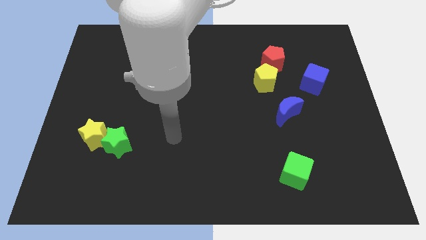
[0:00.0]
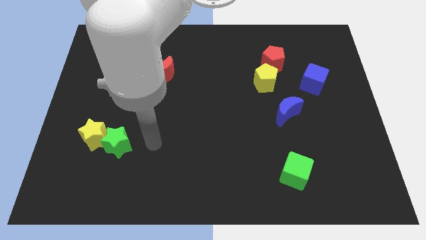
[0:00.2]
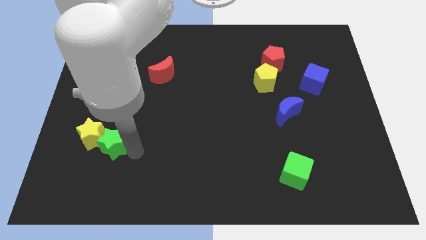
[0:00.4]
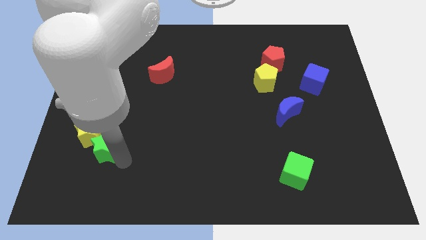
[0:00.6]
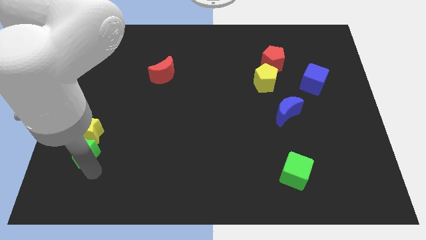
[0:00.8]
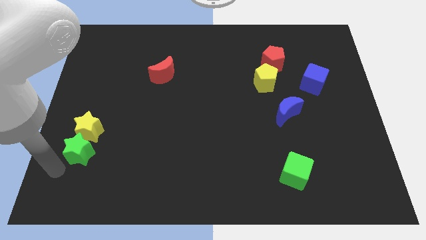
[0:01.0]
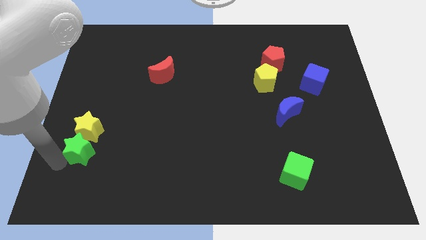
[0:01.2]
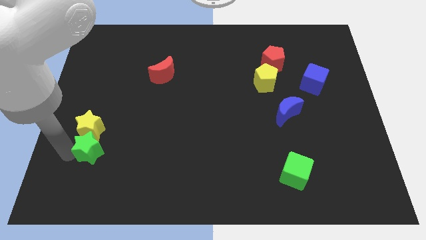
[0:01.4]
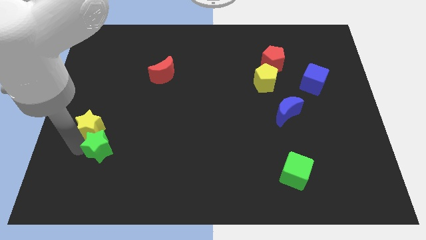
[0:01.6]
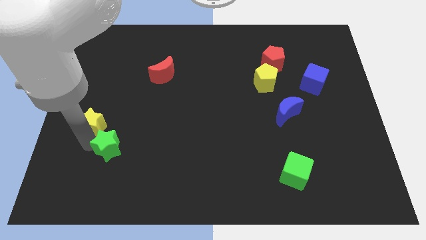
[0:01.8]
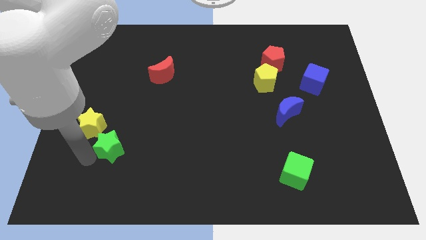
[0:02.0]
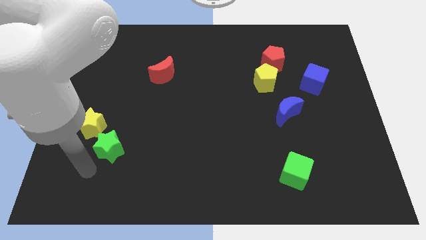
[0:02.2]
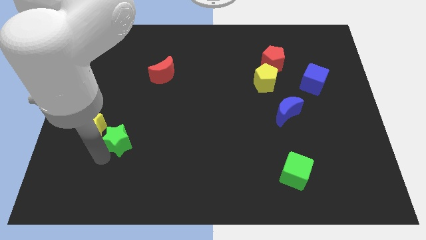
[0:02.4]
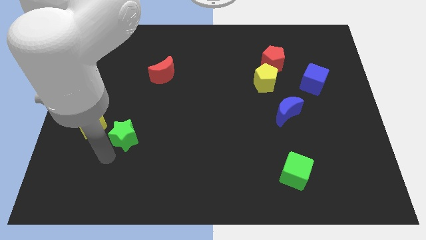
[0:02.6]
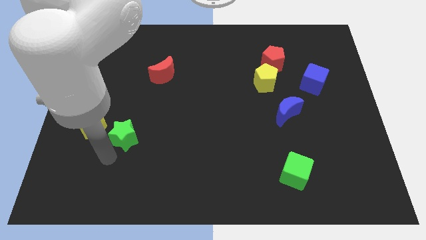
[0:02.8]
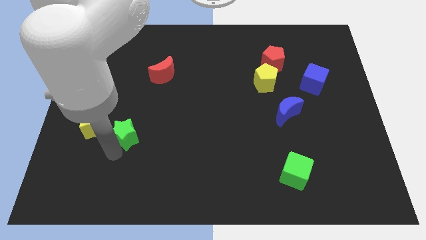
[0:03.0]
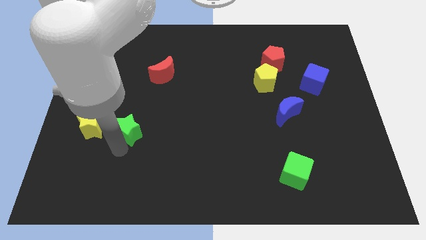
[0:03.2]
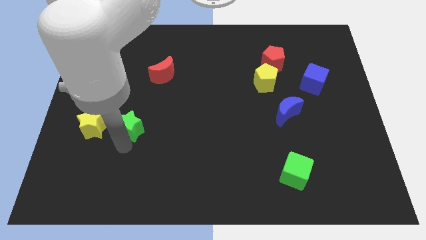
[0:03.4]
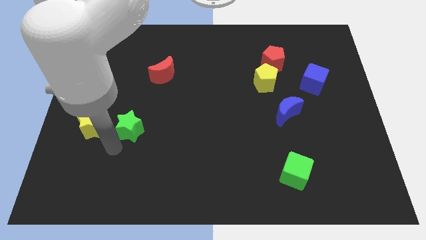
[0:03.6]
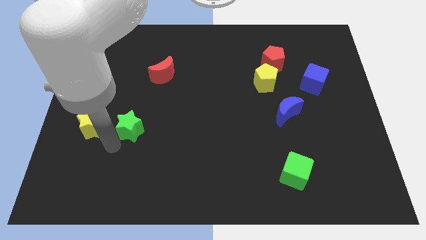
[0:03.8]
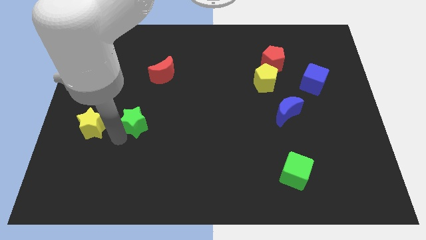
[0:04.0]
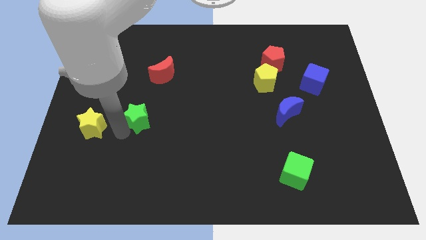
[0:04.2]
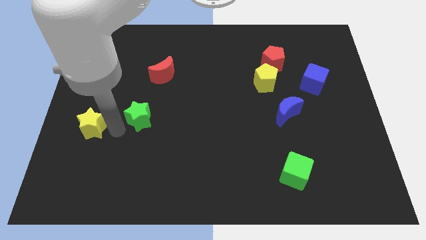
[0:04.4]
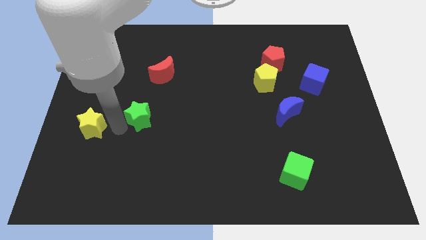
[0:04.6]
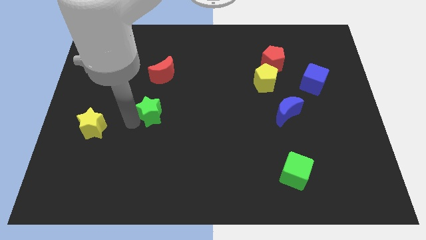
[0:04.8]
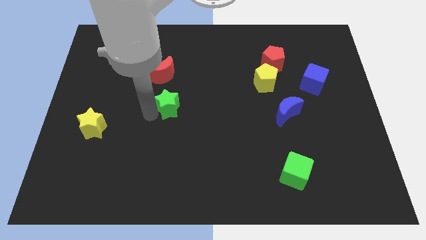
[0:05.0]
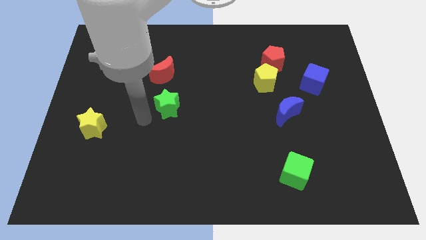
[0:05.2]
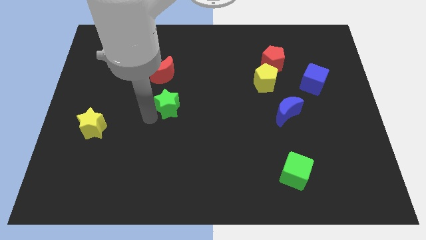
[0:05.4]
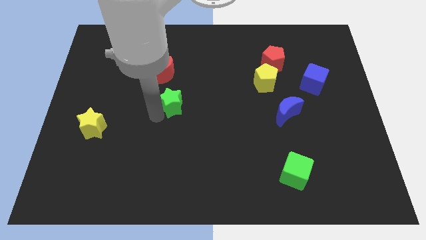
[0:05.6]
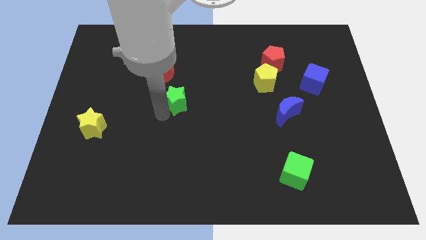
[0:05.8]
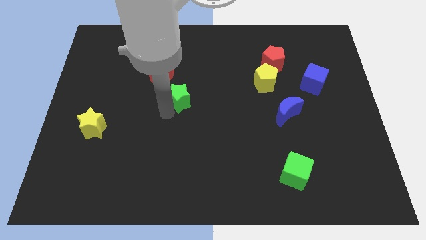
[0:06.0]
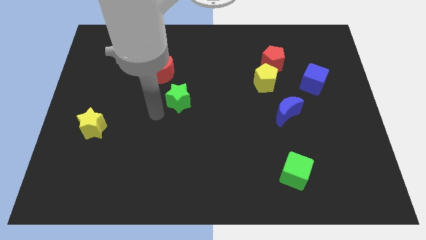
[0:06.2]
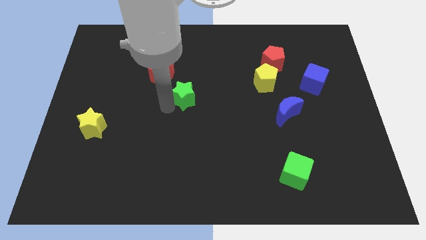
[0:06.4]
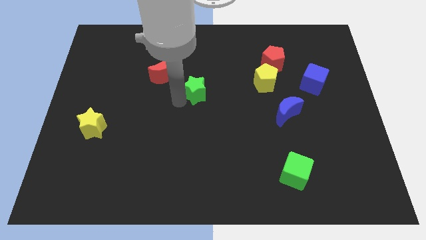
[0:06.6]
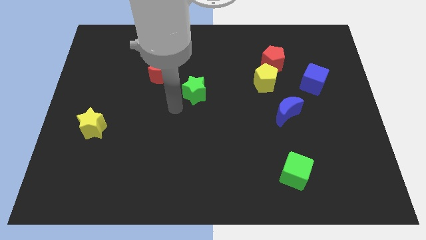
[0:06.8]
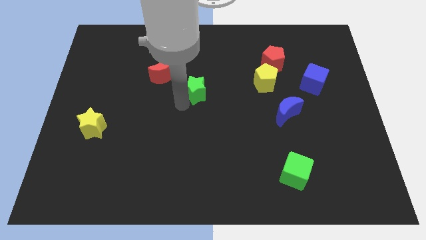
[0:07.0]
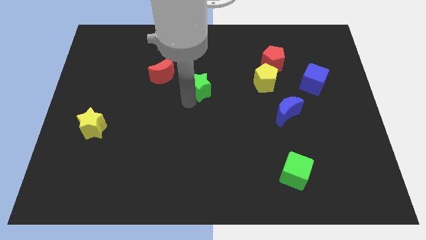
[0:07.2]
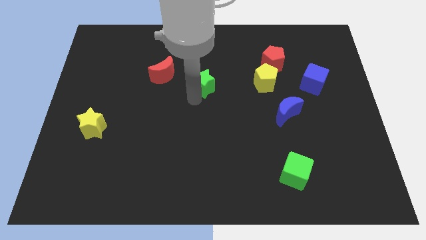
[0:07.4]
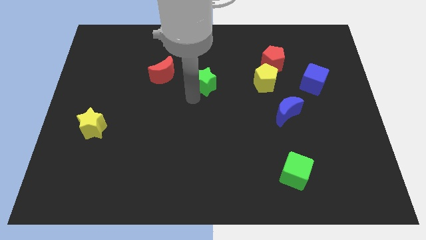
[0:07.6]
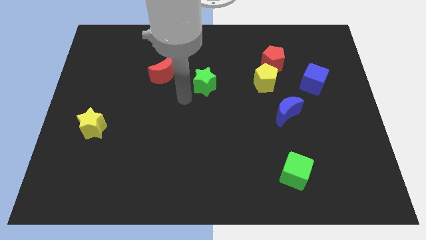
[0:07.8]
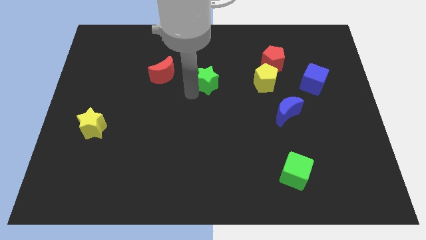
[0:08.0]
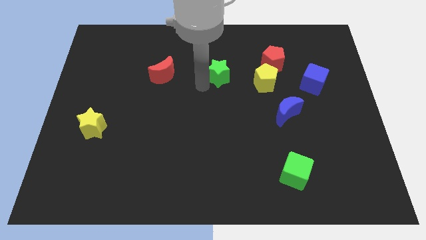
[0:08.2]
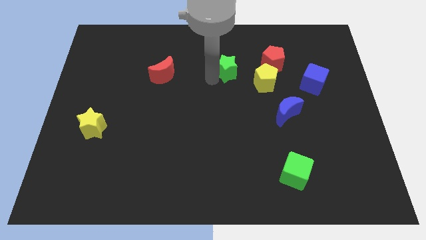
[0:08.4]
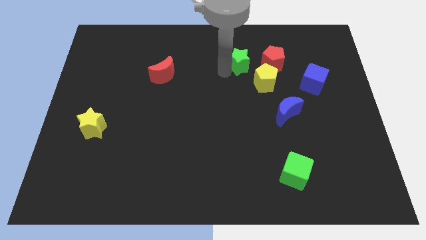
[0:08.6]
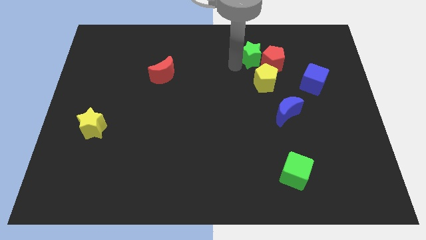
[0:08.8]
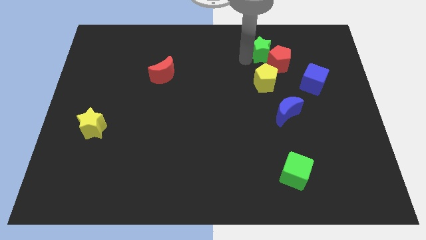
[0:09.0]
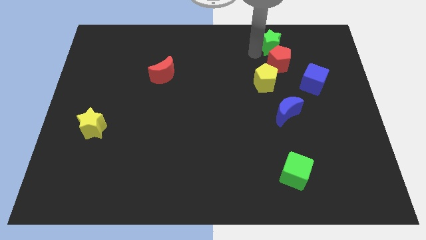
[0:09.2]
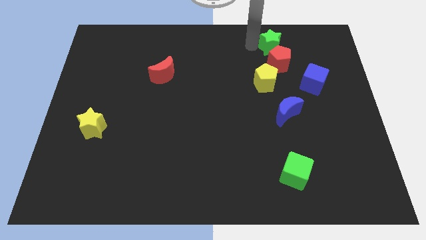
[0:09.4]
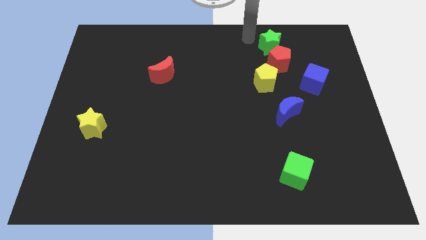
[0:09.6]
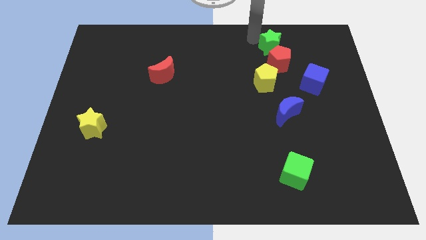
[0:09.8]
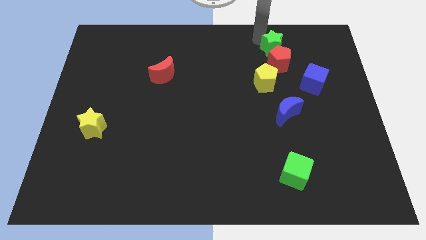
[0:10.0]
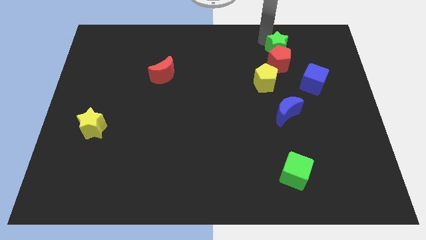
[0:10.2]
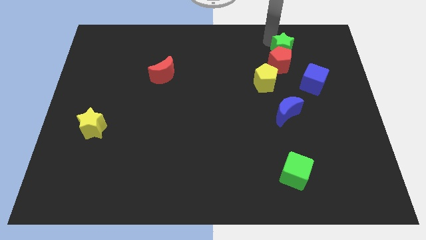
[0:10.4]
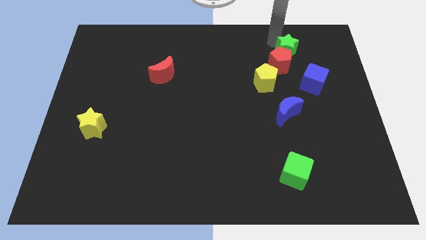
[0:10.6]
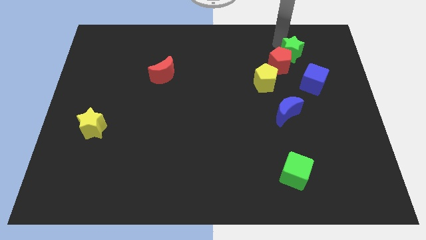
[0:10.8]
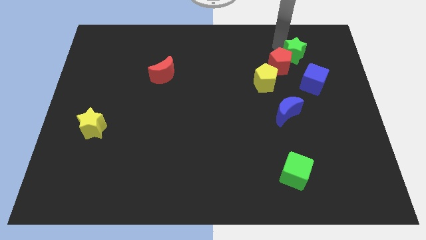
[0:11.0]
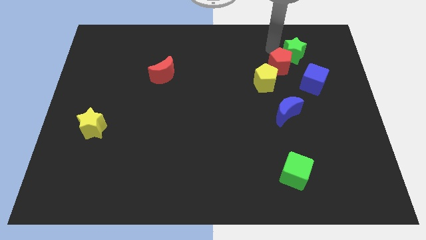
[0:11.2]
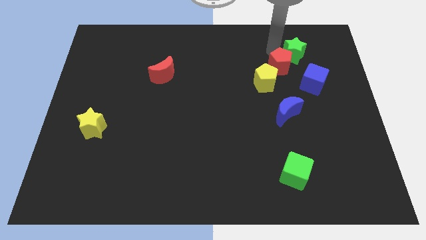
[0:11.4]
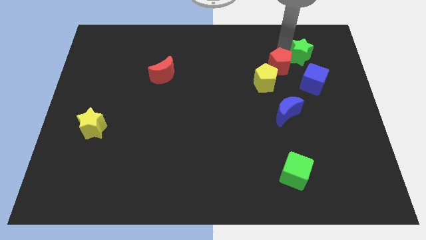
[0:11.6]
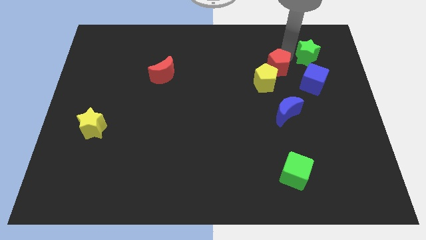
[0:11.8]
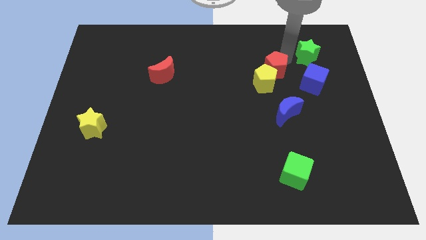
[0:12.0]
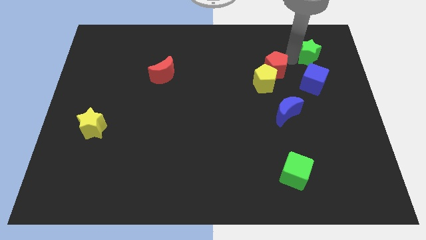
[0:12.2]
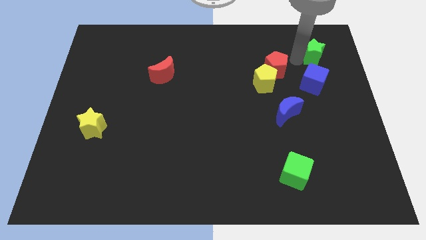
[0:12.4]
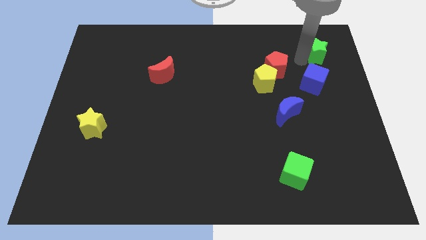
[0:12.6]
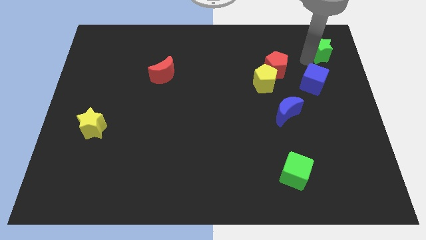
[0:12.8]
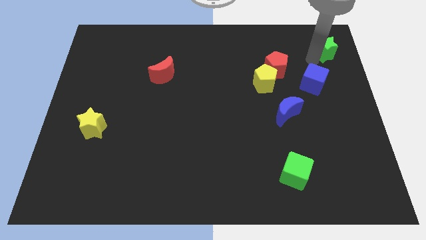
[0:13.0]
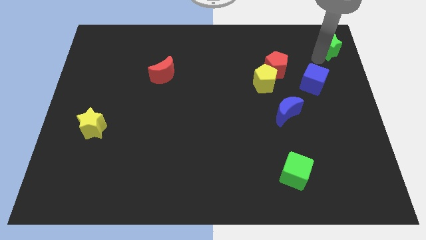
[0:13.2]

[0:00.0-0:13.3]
slide the green star to the top right

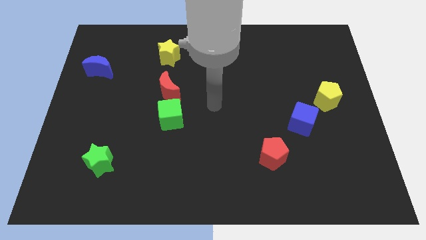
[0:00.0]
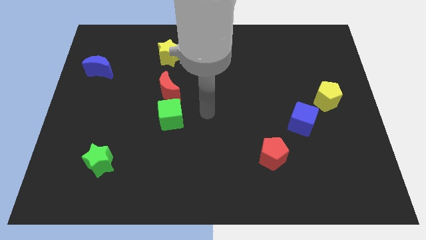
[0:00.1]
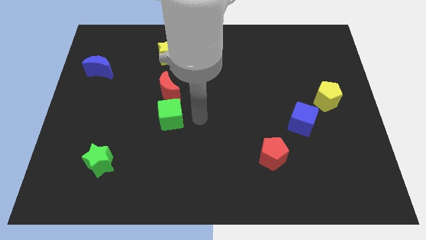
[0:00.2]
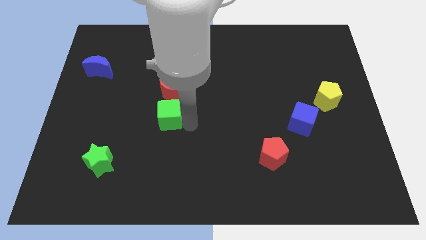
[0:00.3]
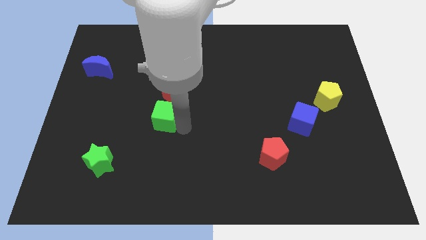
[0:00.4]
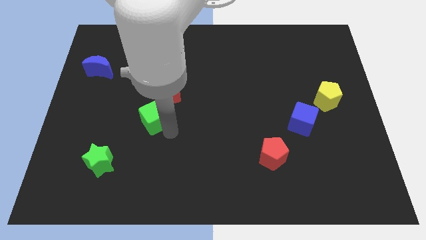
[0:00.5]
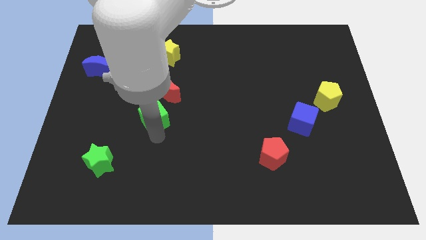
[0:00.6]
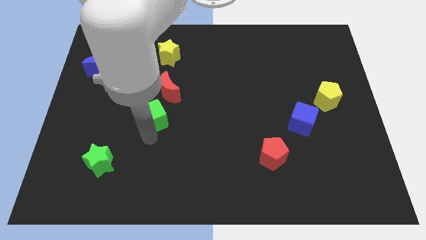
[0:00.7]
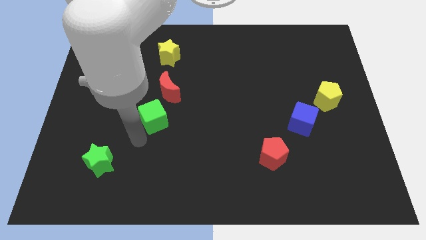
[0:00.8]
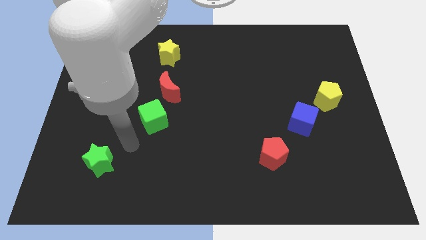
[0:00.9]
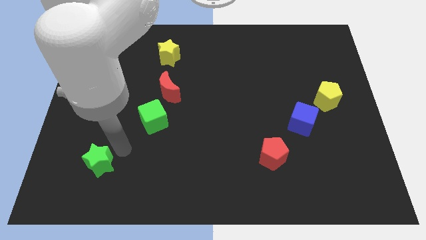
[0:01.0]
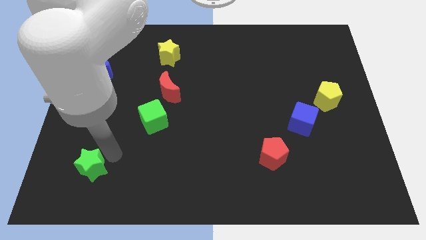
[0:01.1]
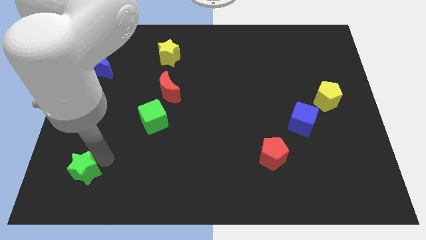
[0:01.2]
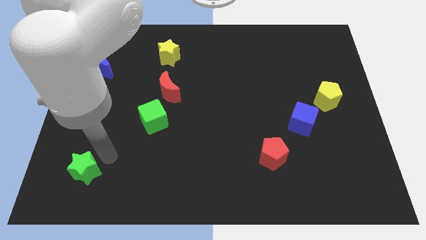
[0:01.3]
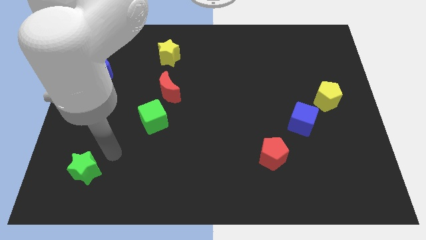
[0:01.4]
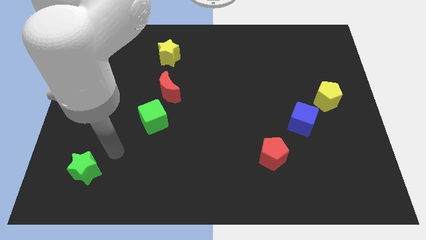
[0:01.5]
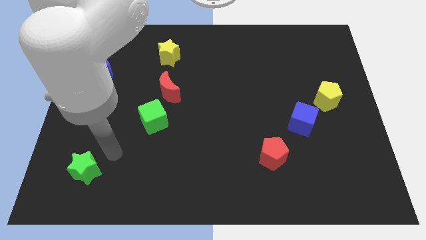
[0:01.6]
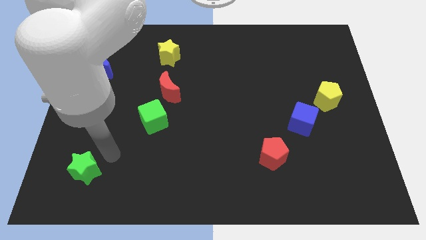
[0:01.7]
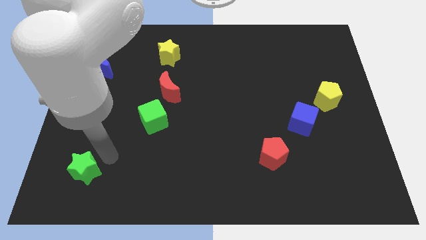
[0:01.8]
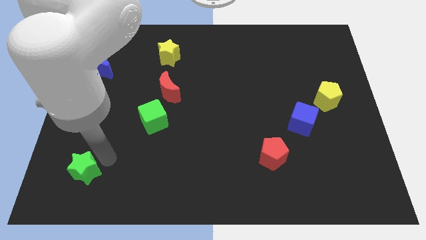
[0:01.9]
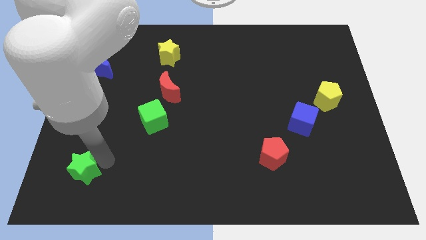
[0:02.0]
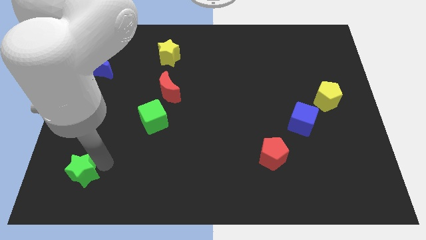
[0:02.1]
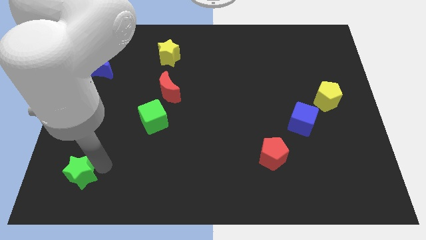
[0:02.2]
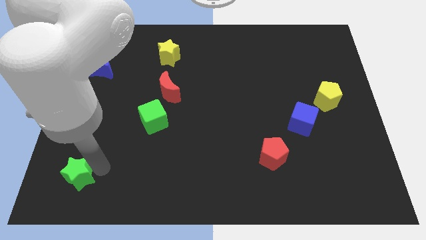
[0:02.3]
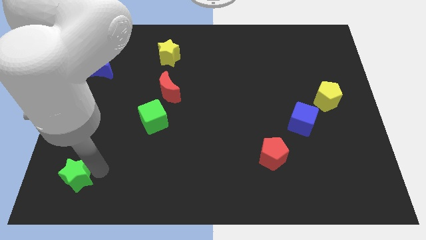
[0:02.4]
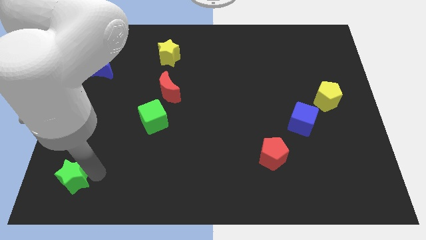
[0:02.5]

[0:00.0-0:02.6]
slide the green star to the bottom left corner
